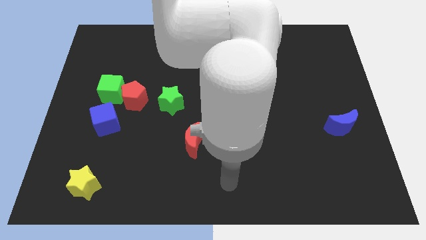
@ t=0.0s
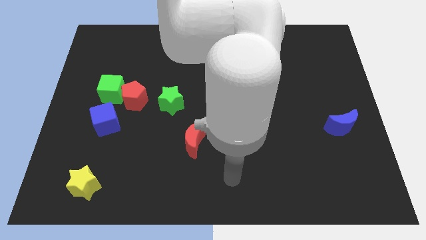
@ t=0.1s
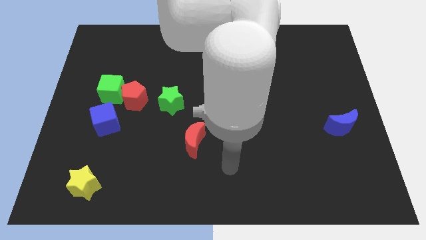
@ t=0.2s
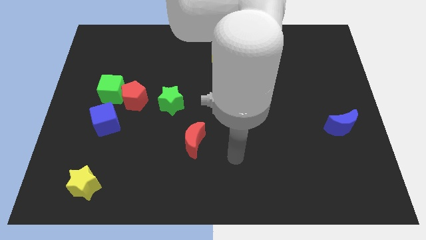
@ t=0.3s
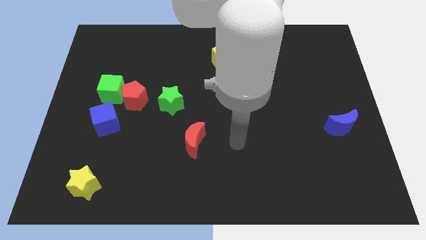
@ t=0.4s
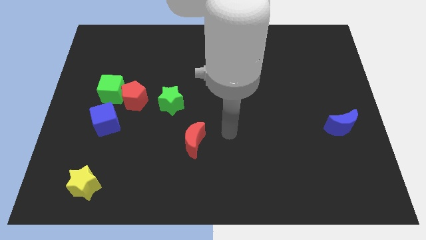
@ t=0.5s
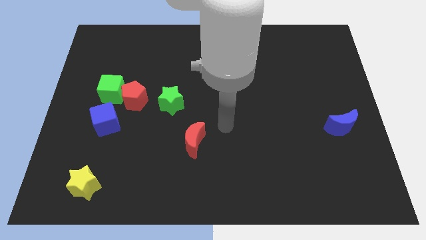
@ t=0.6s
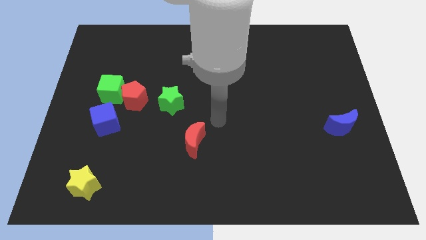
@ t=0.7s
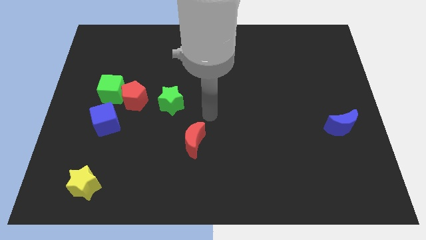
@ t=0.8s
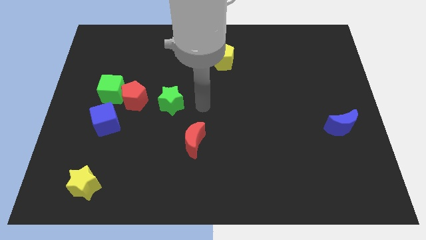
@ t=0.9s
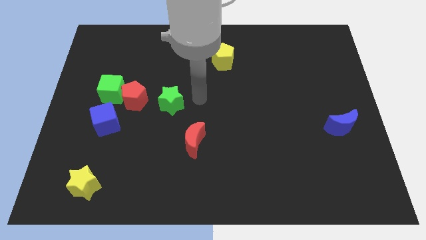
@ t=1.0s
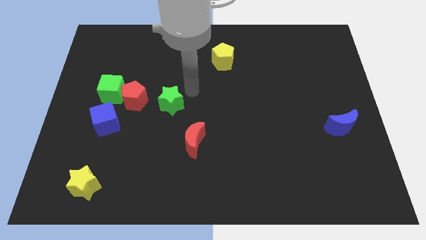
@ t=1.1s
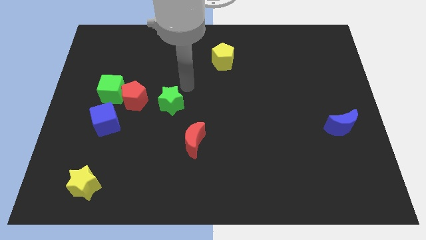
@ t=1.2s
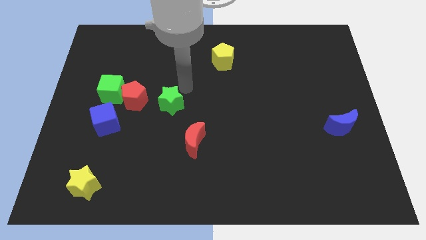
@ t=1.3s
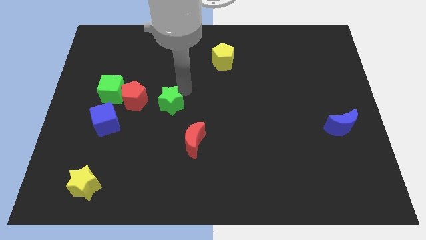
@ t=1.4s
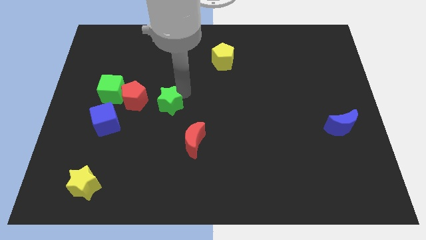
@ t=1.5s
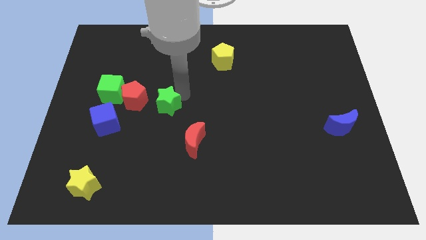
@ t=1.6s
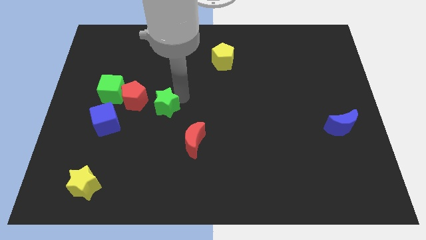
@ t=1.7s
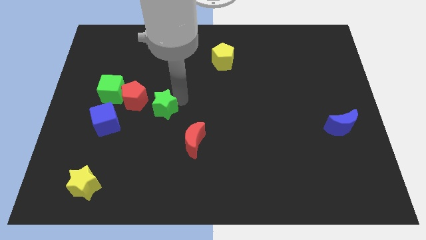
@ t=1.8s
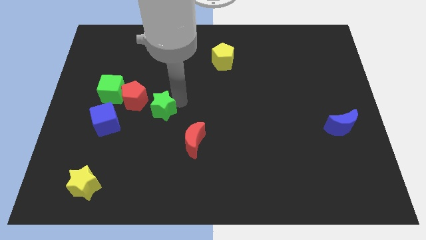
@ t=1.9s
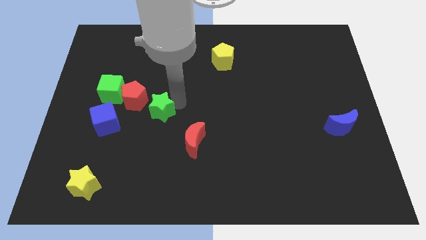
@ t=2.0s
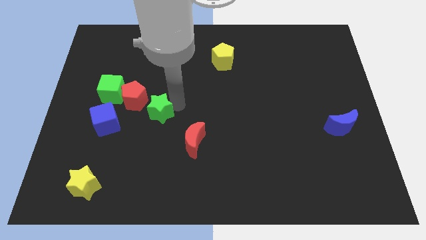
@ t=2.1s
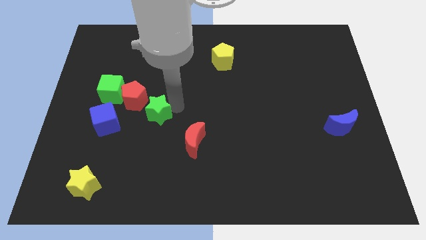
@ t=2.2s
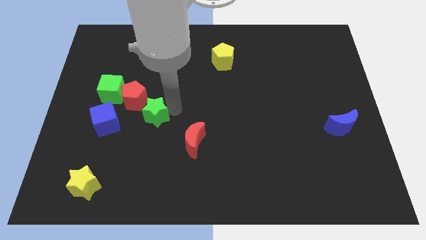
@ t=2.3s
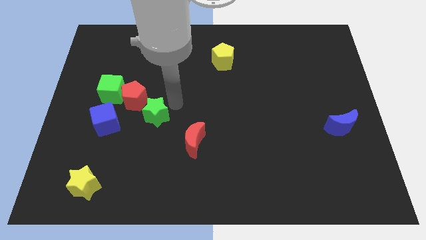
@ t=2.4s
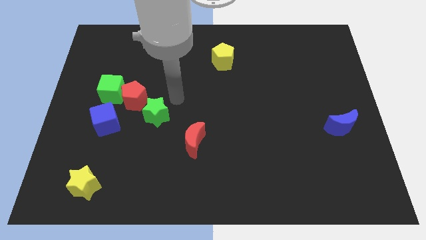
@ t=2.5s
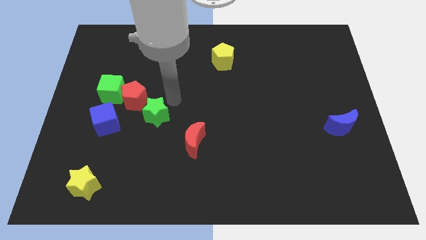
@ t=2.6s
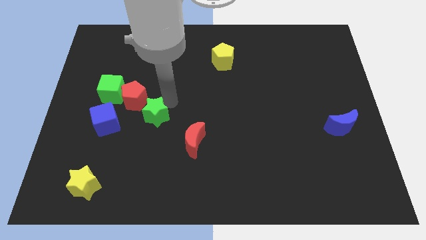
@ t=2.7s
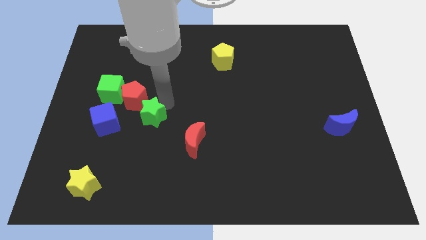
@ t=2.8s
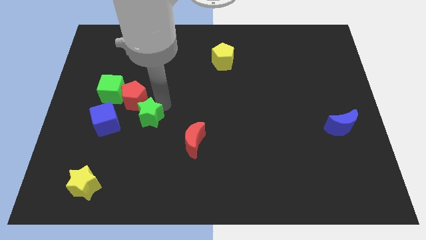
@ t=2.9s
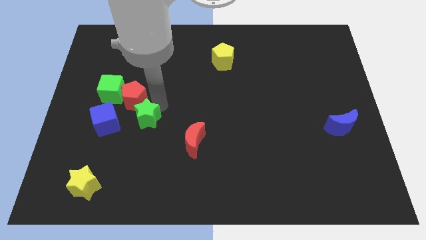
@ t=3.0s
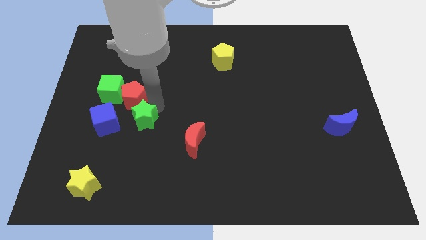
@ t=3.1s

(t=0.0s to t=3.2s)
slide the green star slightly down and then to the left

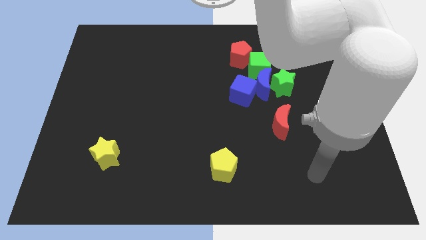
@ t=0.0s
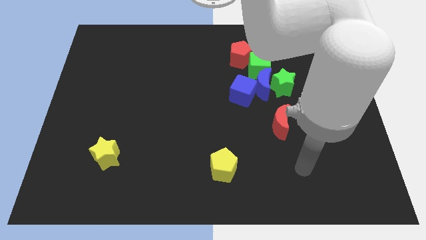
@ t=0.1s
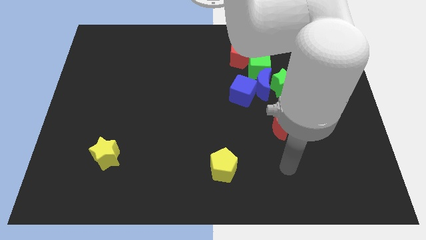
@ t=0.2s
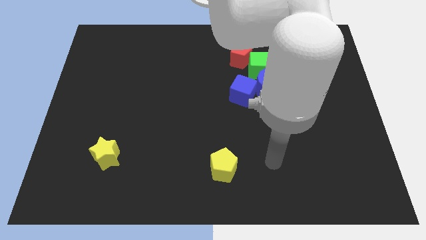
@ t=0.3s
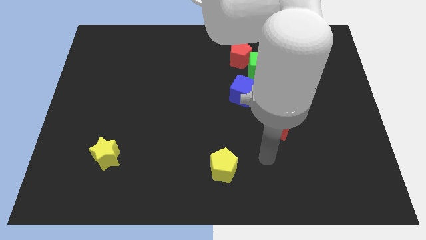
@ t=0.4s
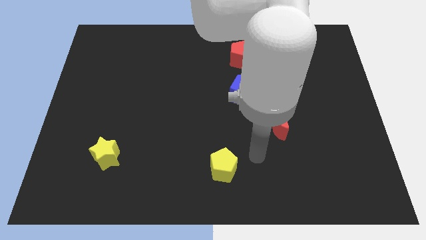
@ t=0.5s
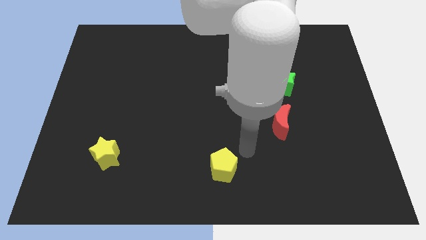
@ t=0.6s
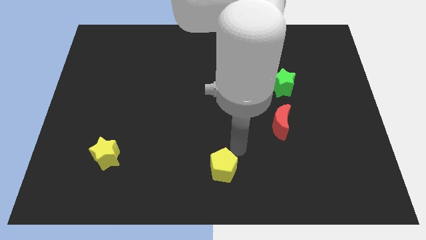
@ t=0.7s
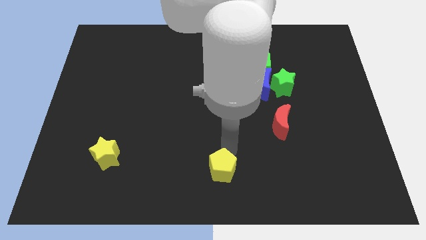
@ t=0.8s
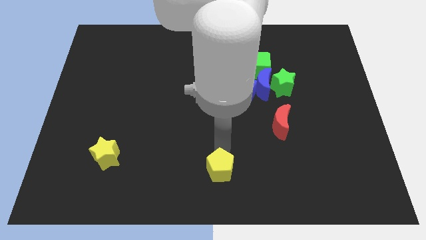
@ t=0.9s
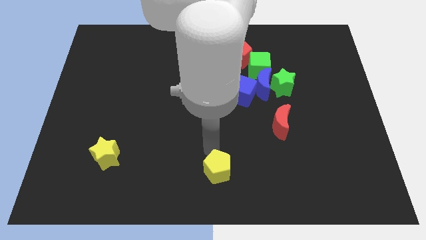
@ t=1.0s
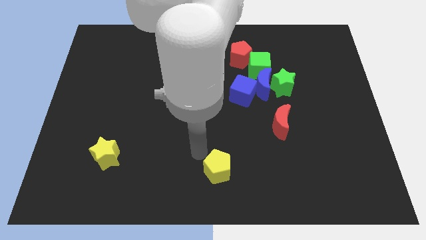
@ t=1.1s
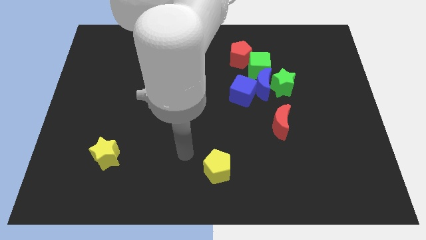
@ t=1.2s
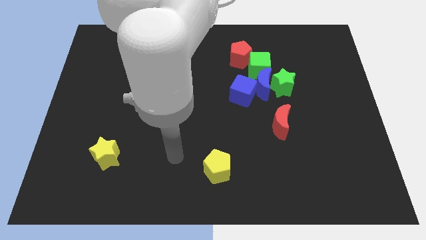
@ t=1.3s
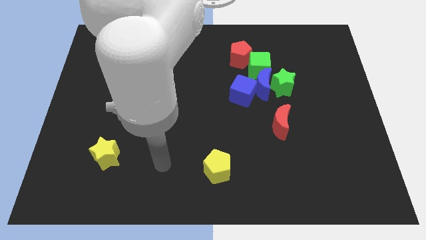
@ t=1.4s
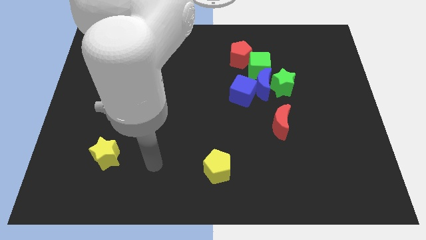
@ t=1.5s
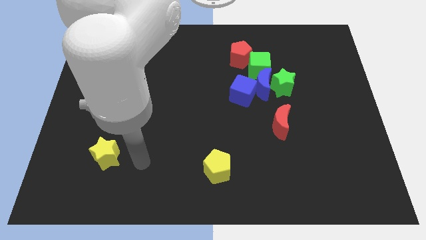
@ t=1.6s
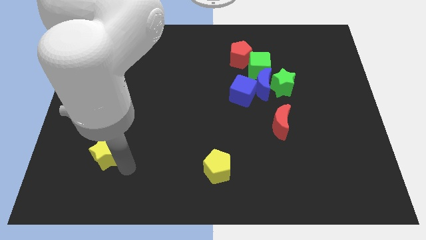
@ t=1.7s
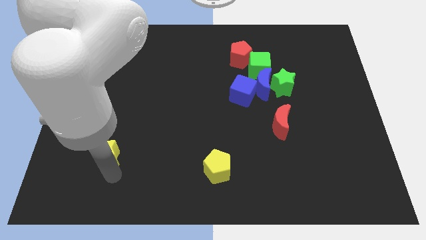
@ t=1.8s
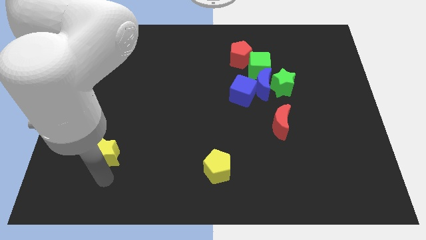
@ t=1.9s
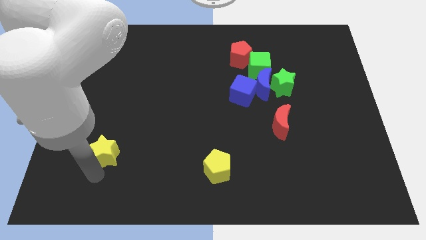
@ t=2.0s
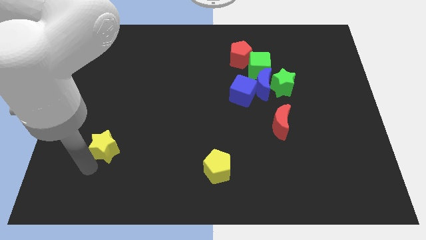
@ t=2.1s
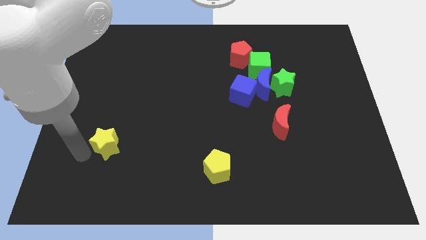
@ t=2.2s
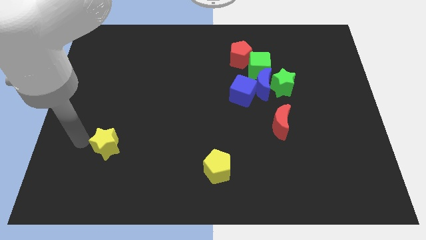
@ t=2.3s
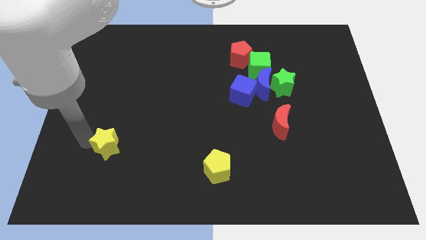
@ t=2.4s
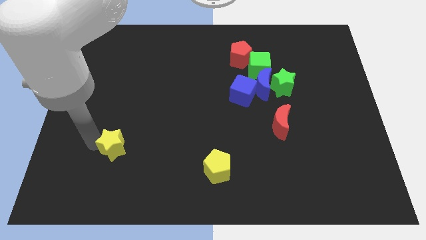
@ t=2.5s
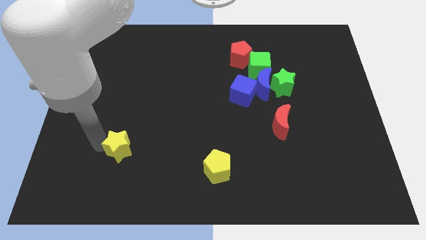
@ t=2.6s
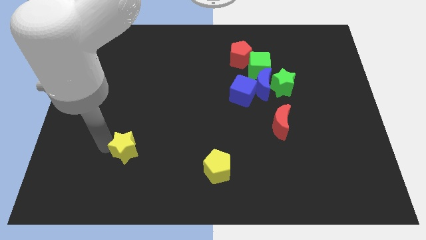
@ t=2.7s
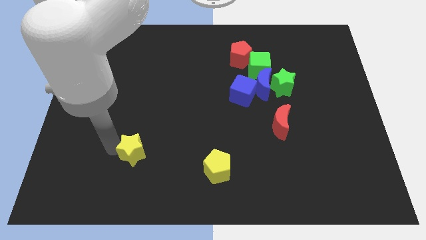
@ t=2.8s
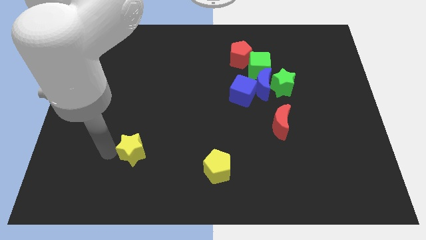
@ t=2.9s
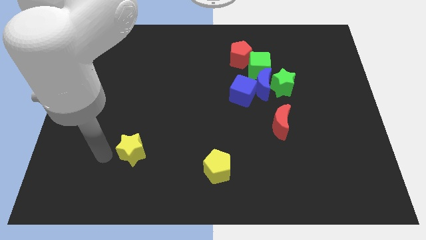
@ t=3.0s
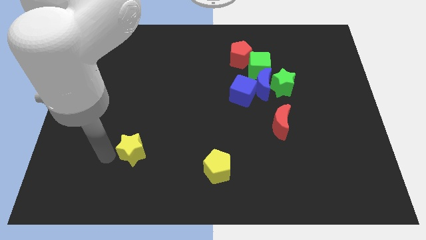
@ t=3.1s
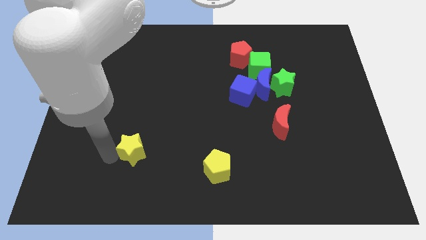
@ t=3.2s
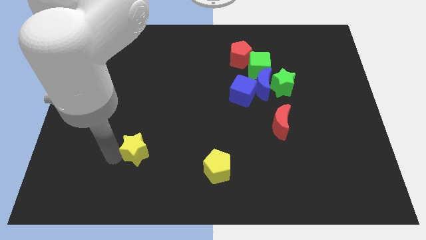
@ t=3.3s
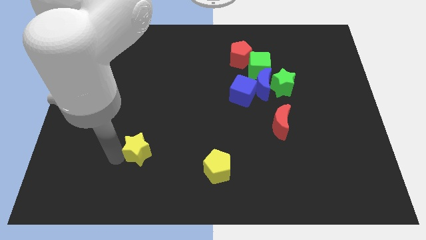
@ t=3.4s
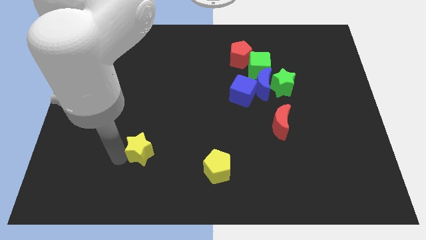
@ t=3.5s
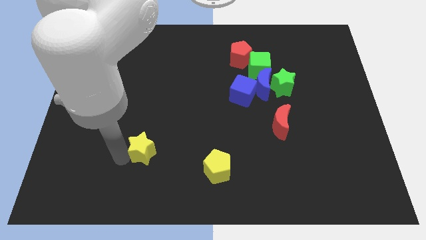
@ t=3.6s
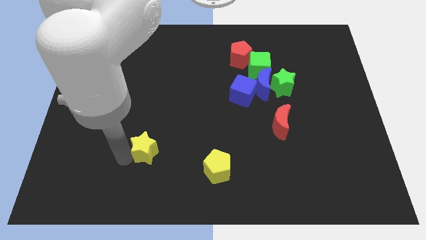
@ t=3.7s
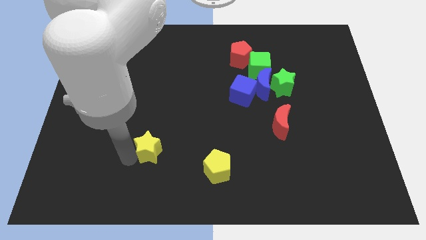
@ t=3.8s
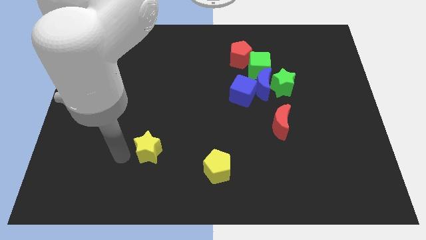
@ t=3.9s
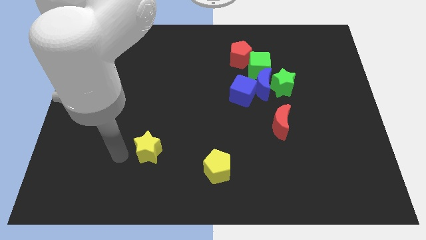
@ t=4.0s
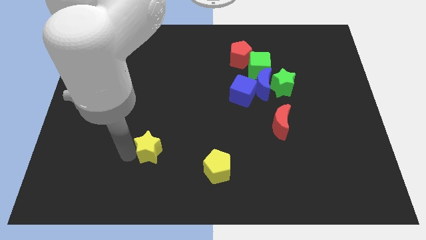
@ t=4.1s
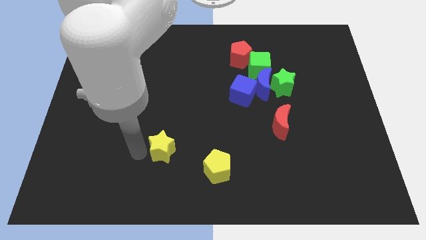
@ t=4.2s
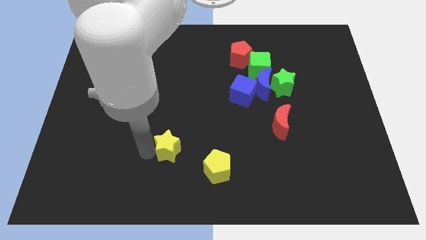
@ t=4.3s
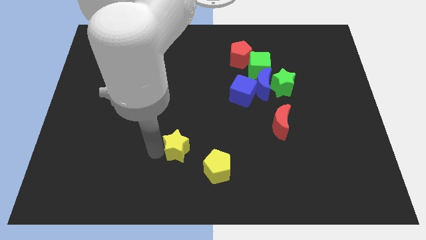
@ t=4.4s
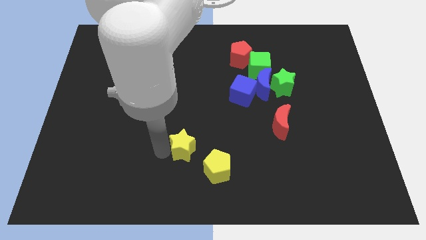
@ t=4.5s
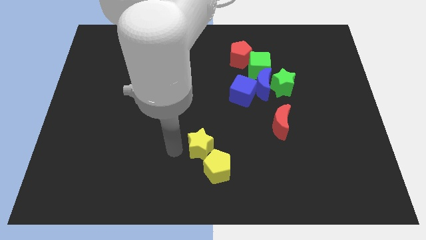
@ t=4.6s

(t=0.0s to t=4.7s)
slide the yellow star right

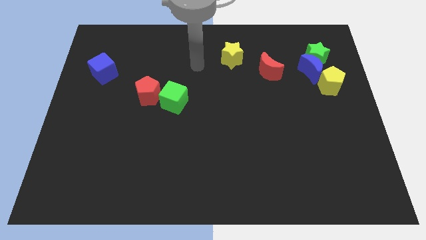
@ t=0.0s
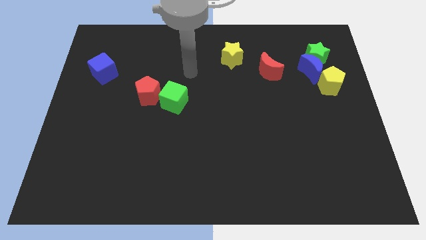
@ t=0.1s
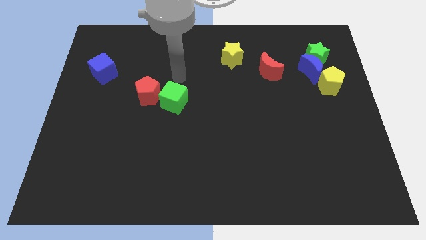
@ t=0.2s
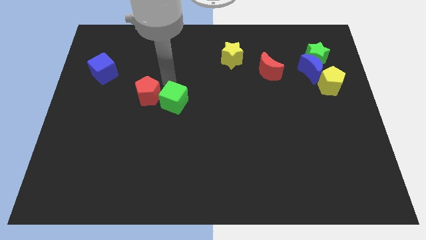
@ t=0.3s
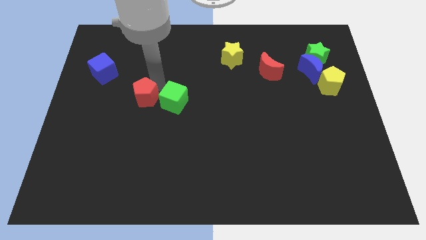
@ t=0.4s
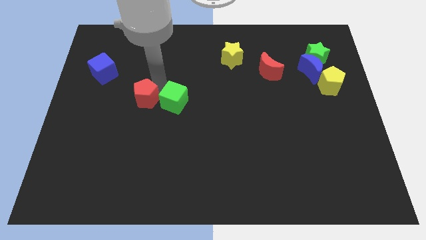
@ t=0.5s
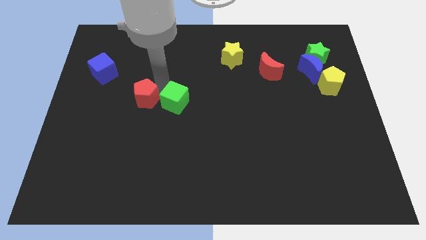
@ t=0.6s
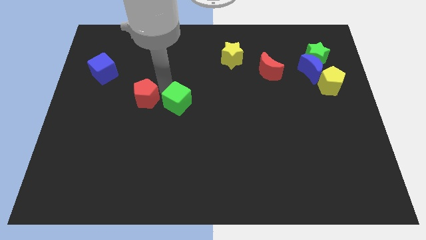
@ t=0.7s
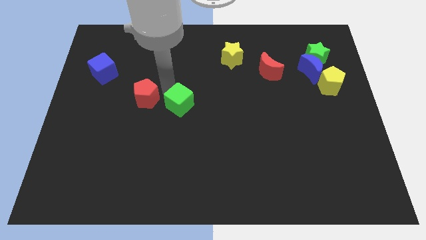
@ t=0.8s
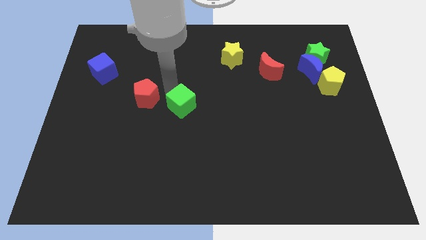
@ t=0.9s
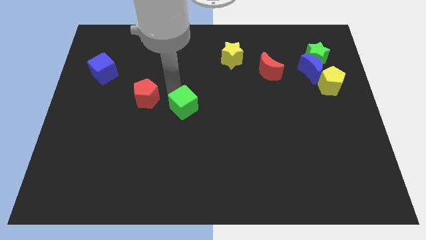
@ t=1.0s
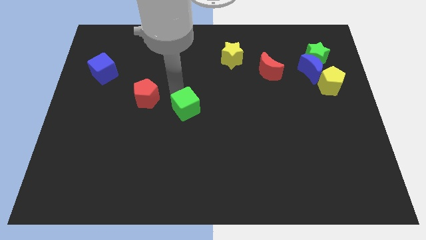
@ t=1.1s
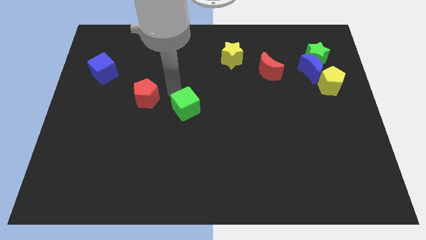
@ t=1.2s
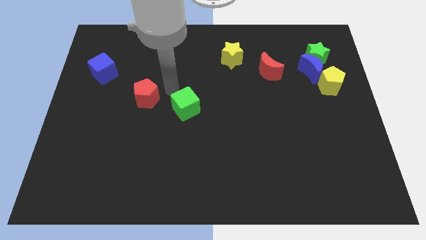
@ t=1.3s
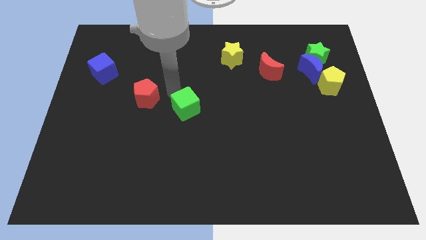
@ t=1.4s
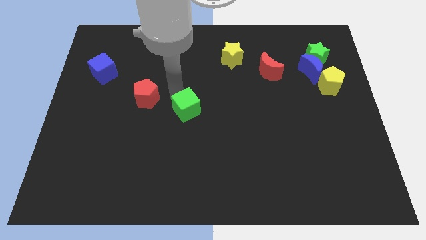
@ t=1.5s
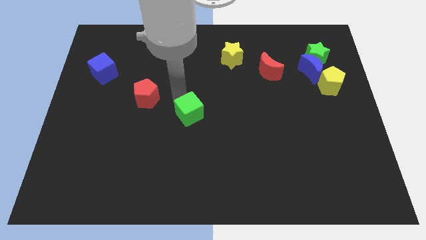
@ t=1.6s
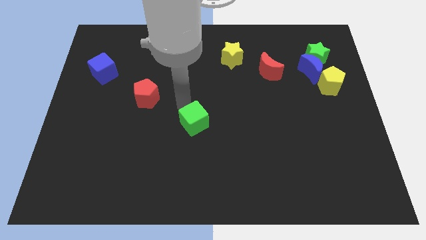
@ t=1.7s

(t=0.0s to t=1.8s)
push the green cube a little down and right diagonally
